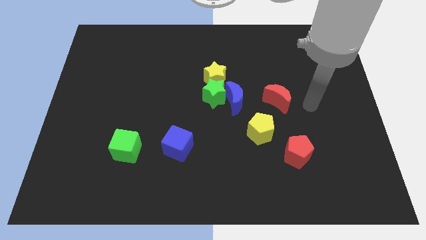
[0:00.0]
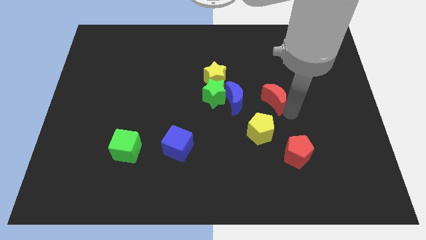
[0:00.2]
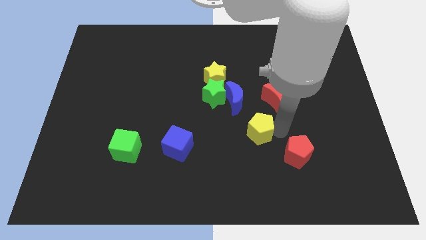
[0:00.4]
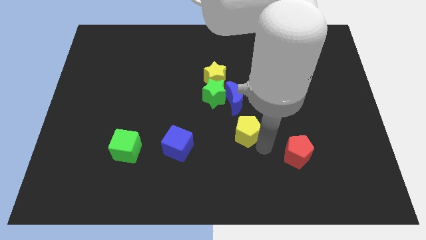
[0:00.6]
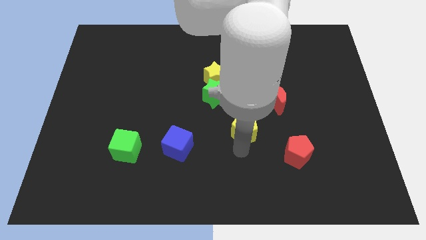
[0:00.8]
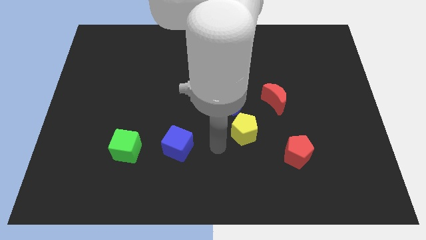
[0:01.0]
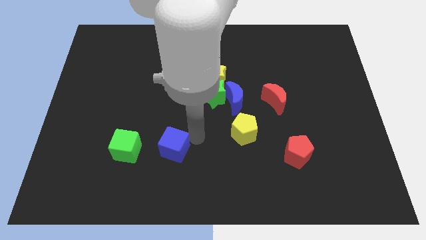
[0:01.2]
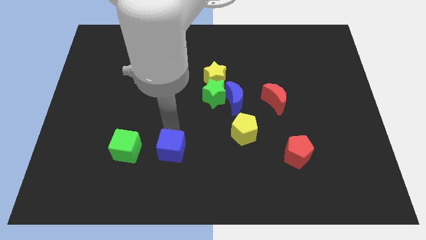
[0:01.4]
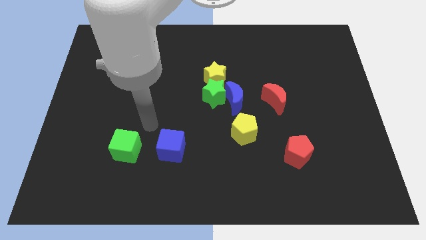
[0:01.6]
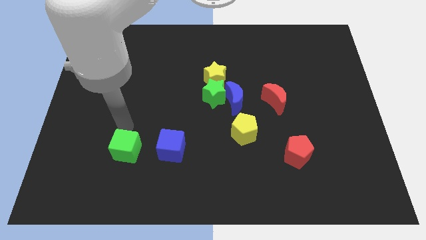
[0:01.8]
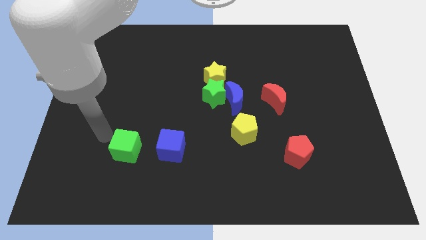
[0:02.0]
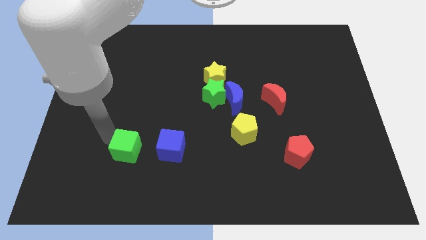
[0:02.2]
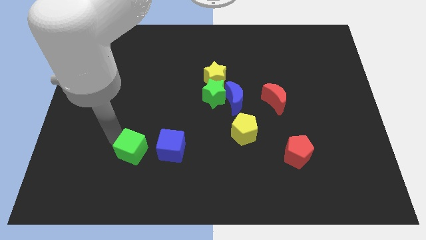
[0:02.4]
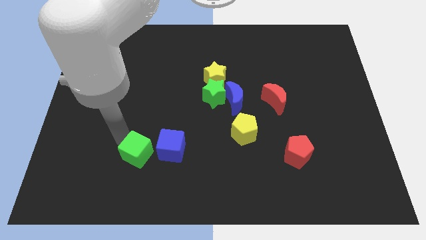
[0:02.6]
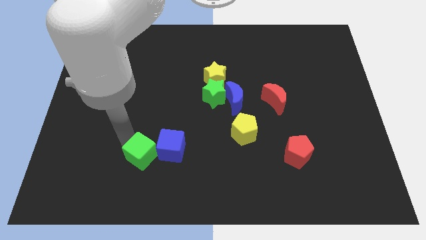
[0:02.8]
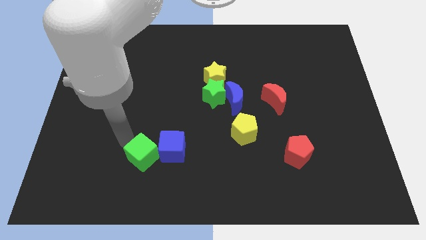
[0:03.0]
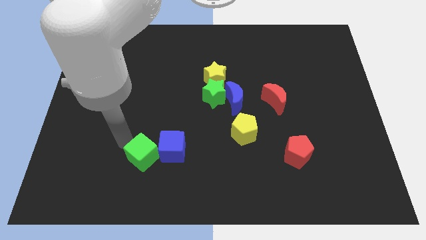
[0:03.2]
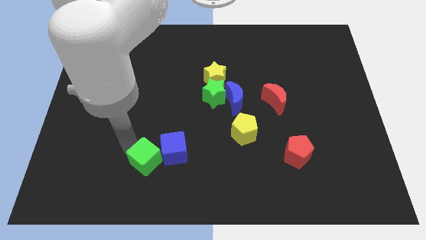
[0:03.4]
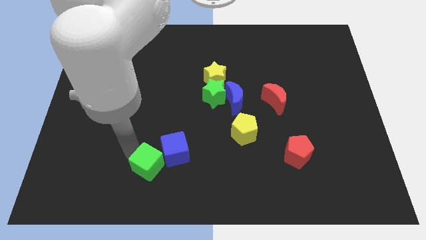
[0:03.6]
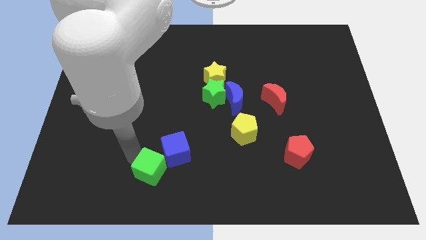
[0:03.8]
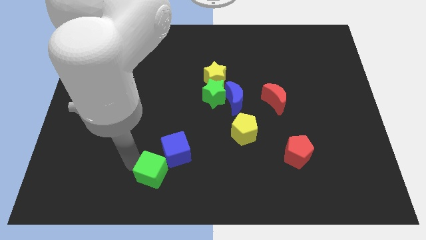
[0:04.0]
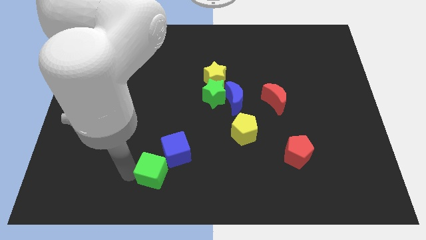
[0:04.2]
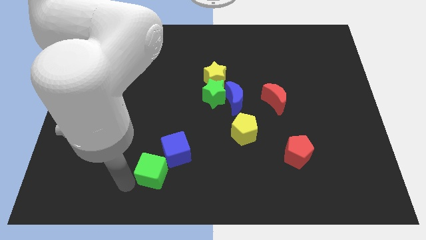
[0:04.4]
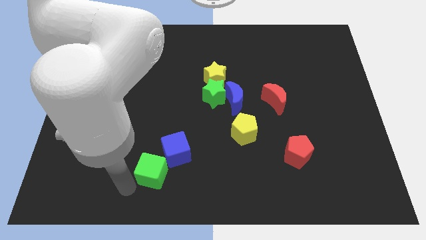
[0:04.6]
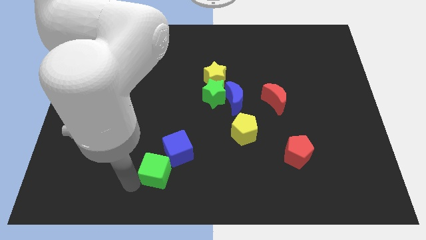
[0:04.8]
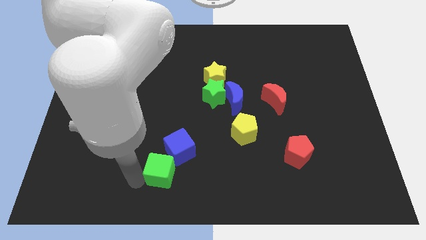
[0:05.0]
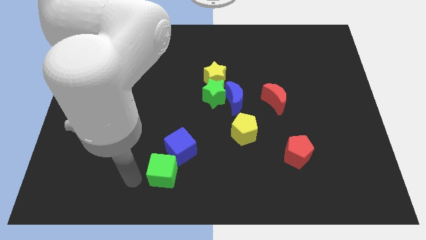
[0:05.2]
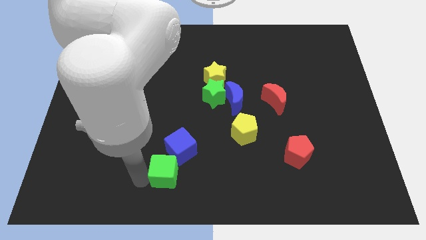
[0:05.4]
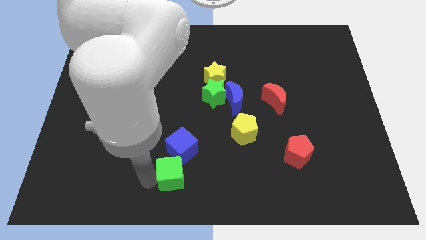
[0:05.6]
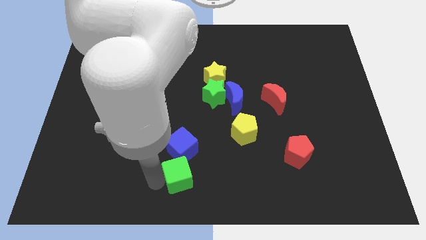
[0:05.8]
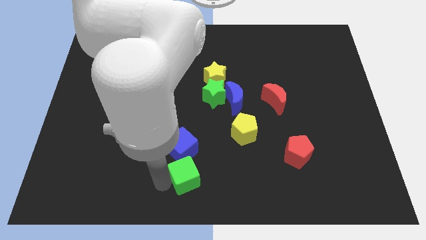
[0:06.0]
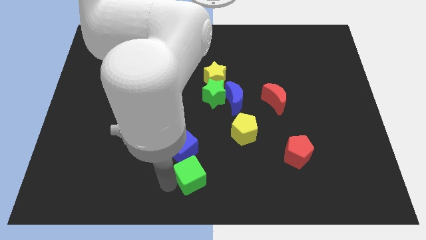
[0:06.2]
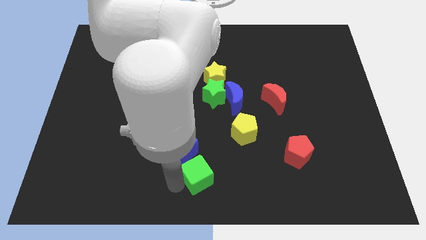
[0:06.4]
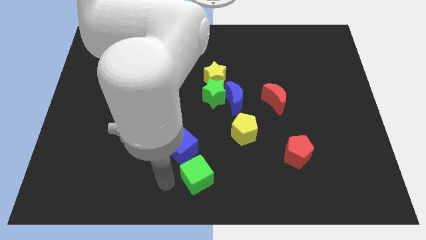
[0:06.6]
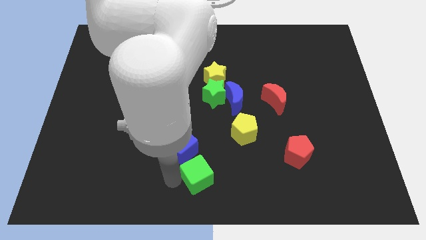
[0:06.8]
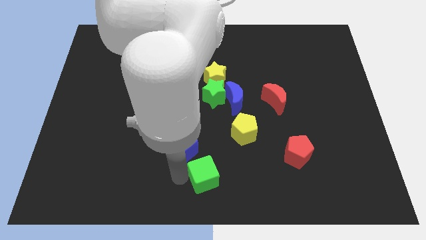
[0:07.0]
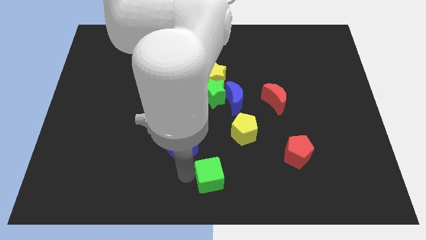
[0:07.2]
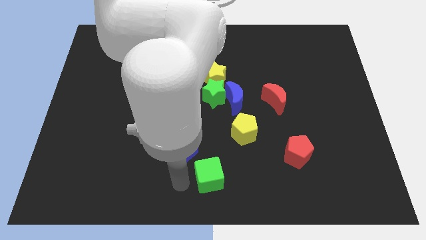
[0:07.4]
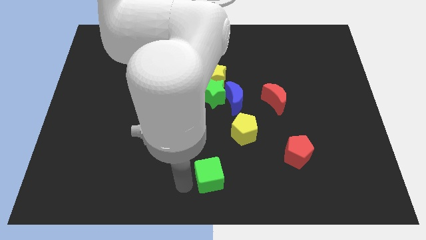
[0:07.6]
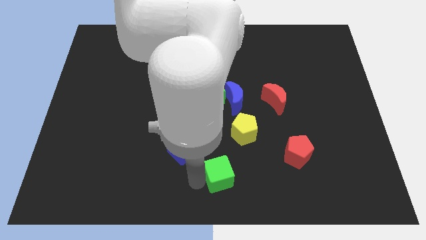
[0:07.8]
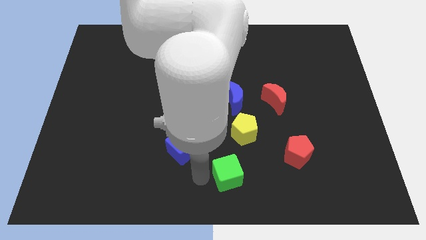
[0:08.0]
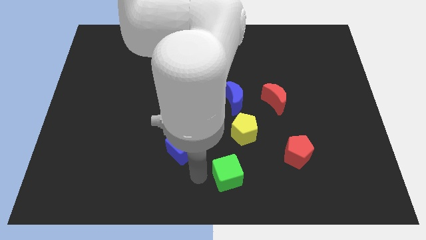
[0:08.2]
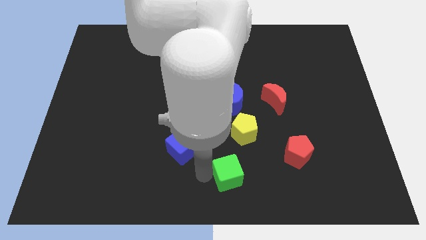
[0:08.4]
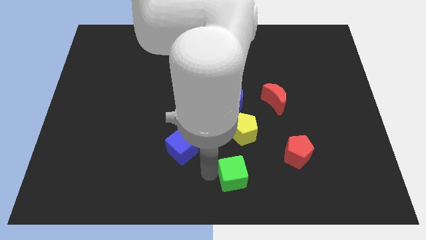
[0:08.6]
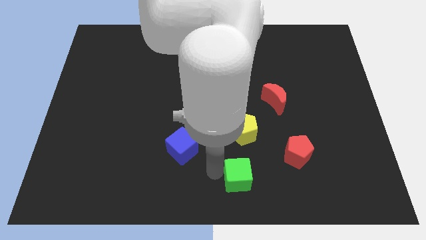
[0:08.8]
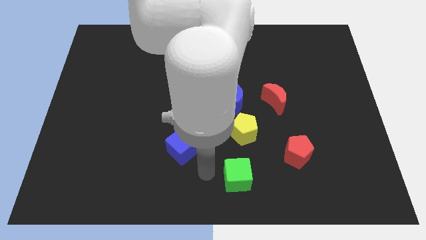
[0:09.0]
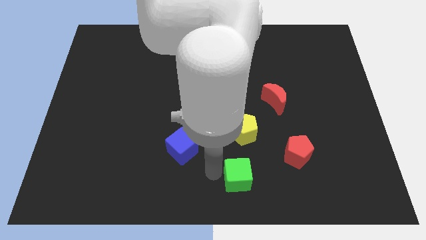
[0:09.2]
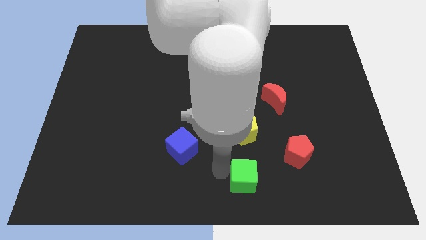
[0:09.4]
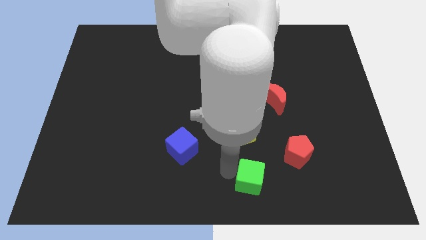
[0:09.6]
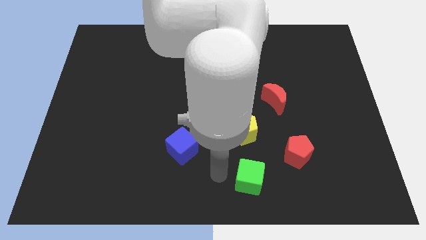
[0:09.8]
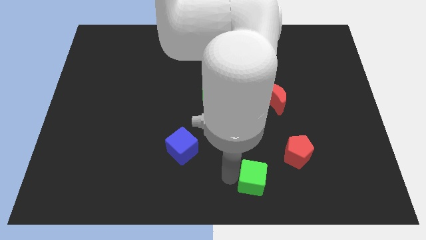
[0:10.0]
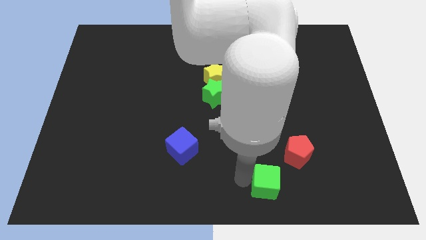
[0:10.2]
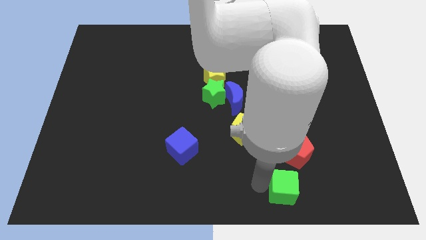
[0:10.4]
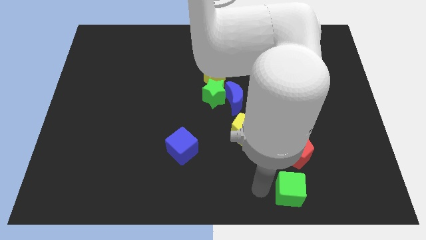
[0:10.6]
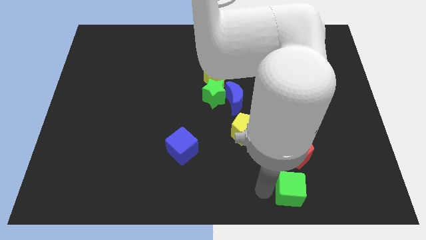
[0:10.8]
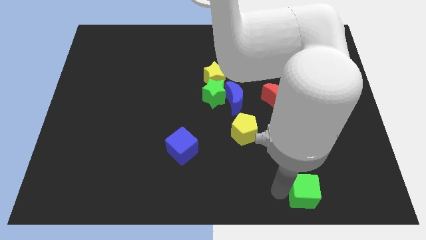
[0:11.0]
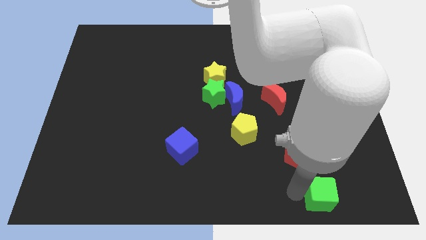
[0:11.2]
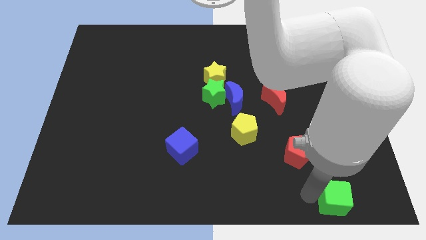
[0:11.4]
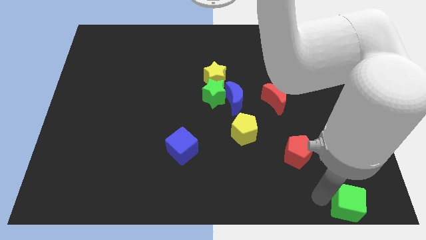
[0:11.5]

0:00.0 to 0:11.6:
move the green cube to the lower right corner
